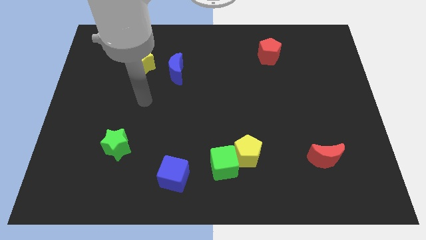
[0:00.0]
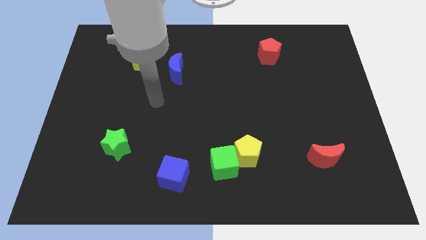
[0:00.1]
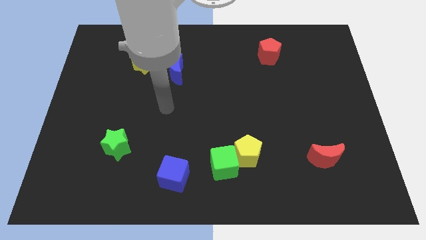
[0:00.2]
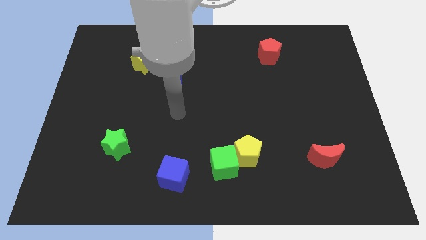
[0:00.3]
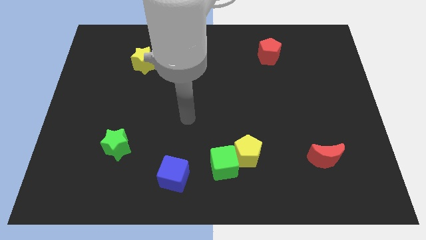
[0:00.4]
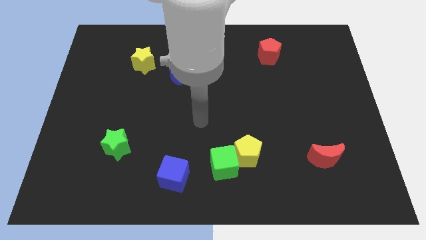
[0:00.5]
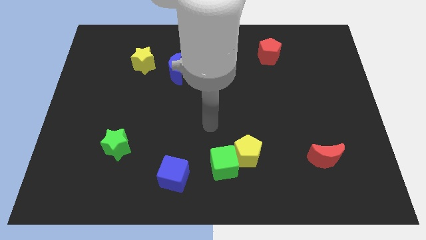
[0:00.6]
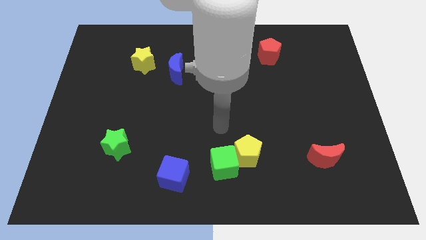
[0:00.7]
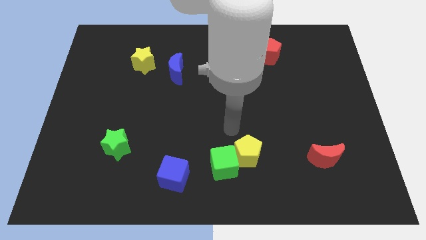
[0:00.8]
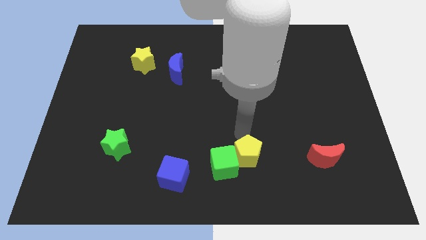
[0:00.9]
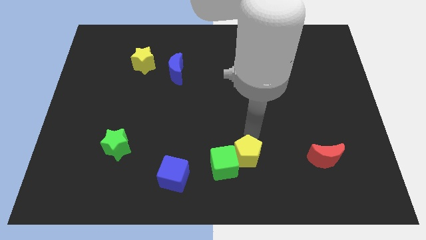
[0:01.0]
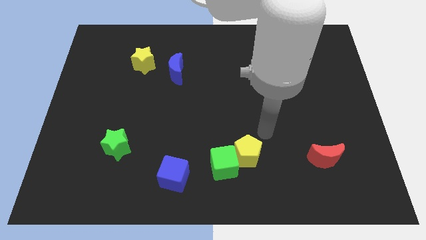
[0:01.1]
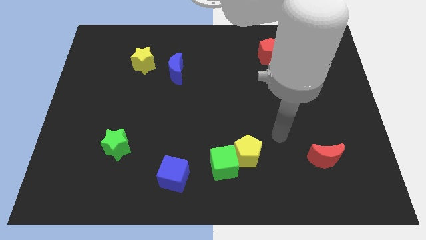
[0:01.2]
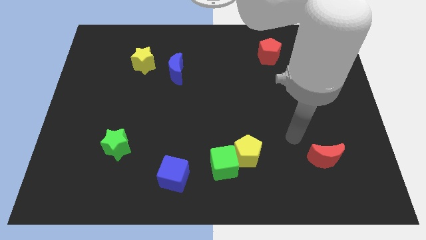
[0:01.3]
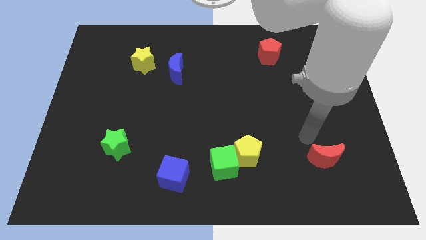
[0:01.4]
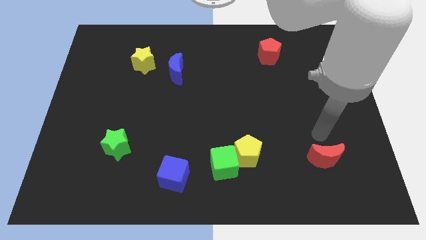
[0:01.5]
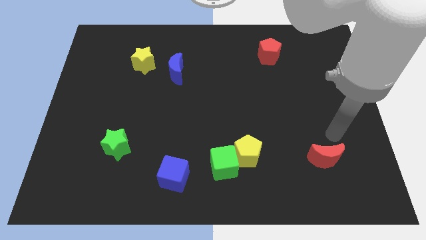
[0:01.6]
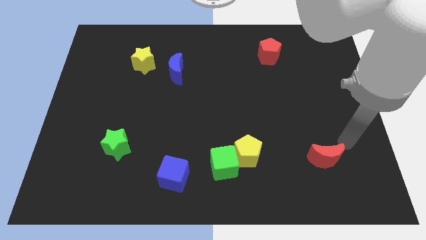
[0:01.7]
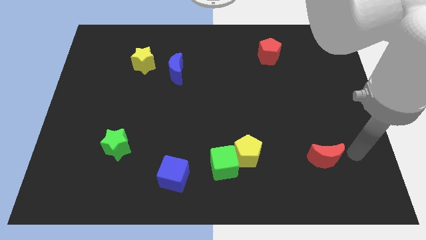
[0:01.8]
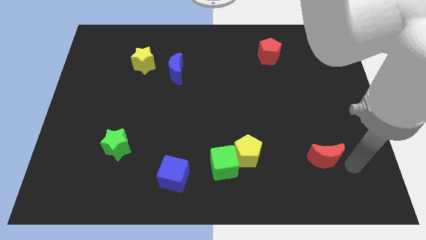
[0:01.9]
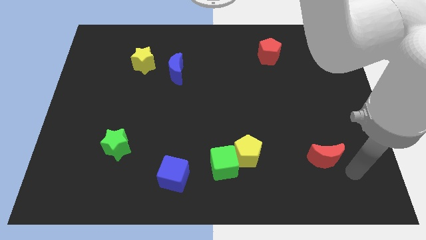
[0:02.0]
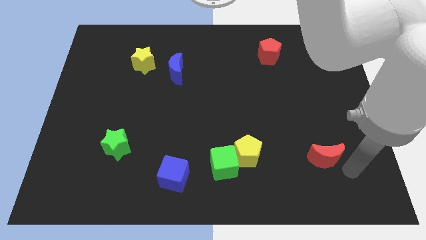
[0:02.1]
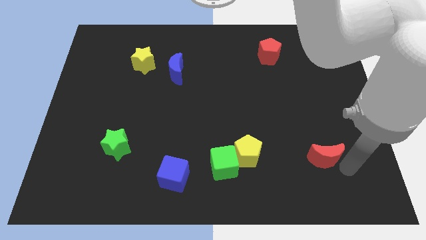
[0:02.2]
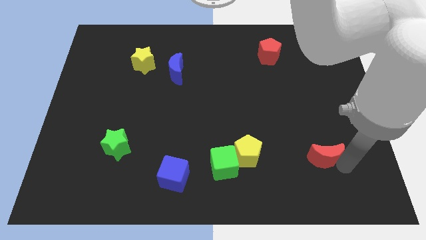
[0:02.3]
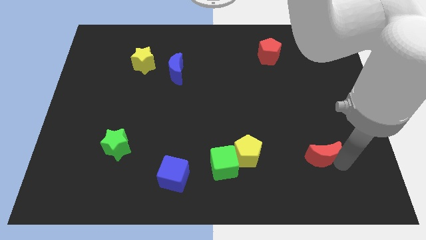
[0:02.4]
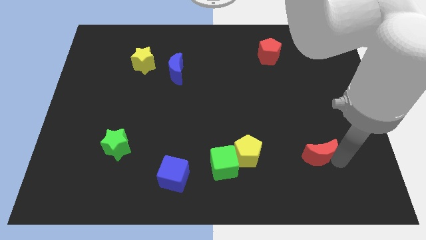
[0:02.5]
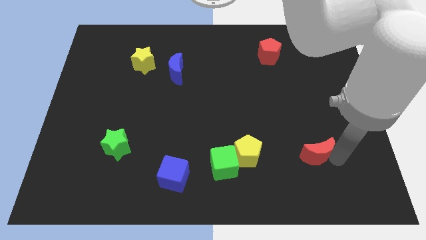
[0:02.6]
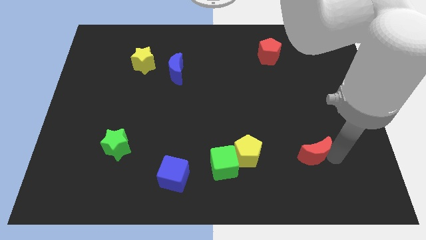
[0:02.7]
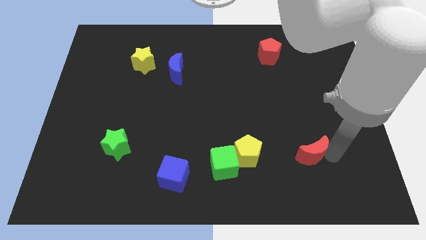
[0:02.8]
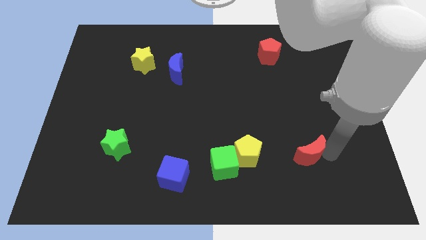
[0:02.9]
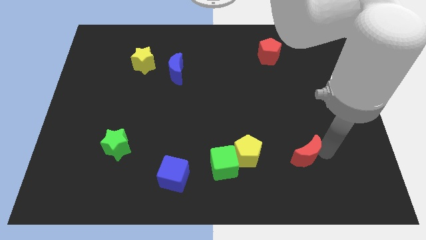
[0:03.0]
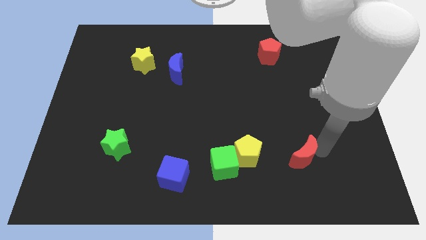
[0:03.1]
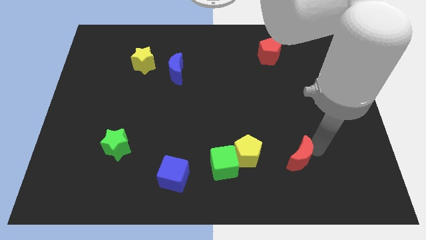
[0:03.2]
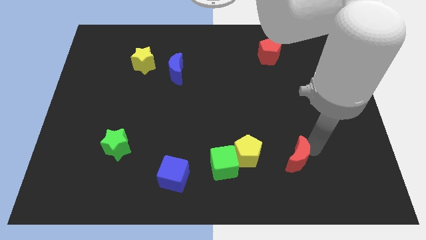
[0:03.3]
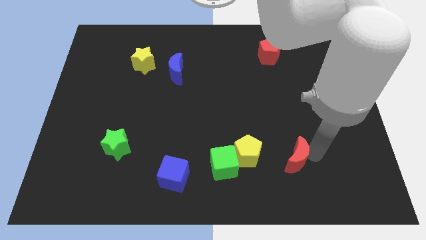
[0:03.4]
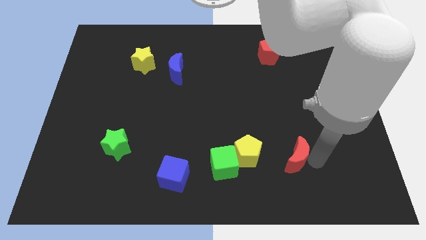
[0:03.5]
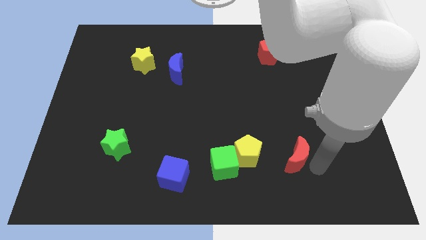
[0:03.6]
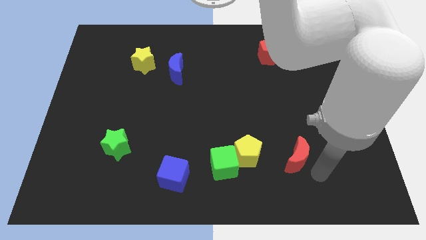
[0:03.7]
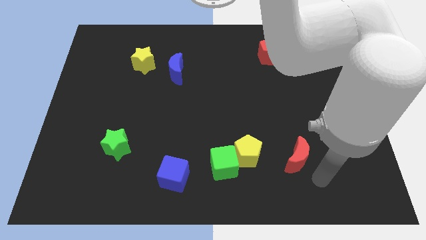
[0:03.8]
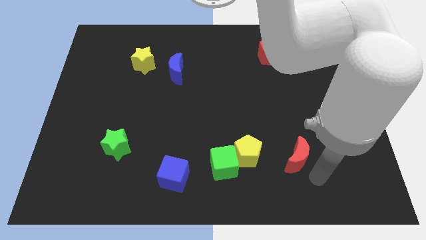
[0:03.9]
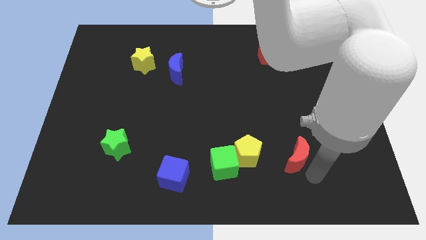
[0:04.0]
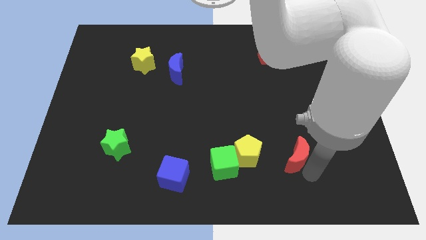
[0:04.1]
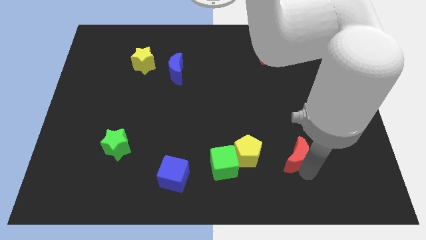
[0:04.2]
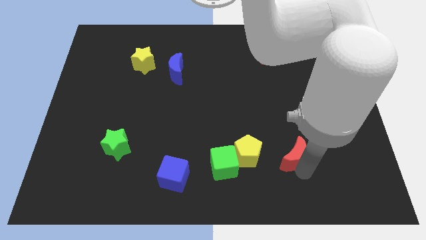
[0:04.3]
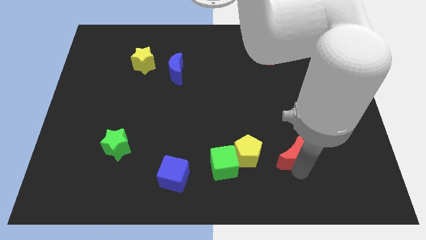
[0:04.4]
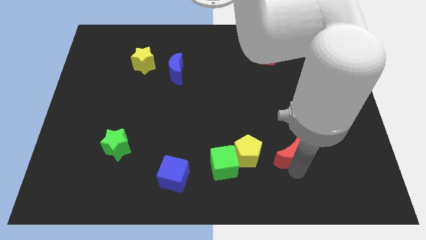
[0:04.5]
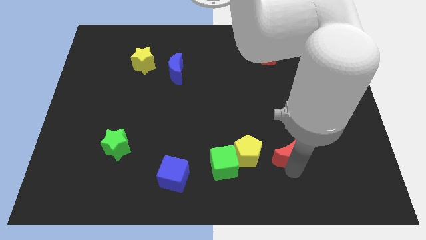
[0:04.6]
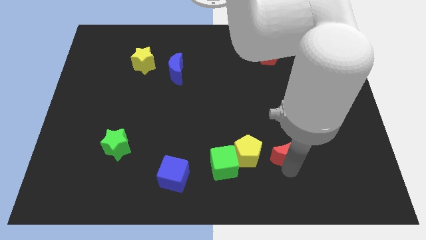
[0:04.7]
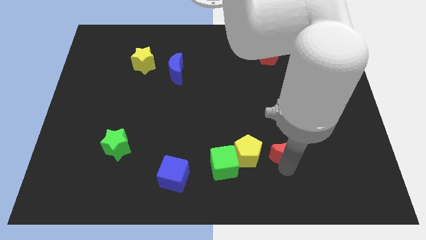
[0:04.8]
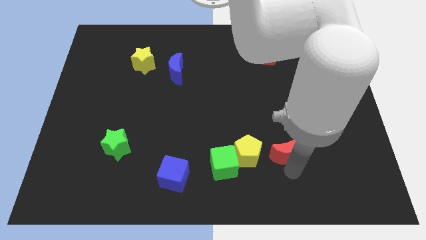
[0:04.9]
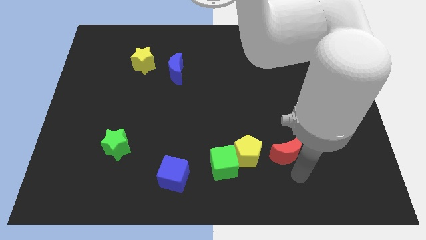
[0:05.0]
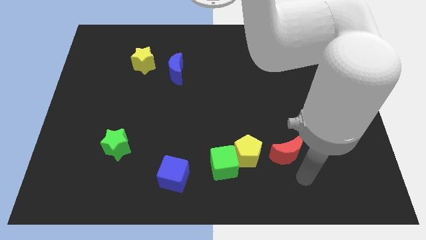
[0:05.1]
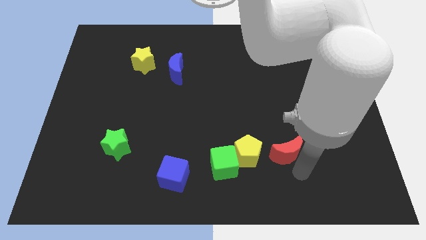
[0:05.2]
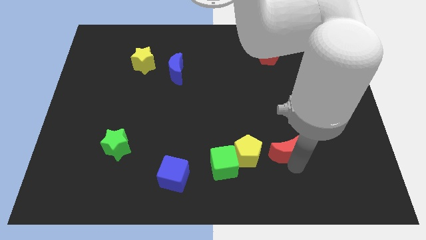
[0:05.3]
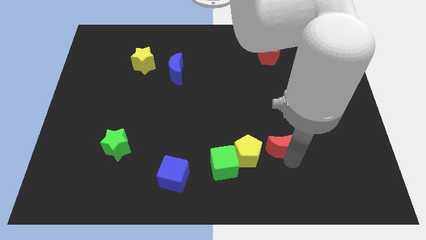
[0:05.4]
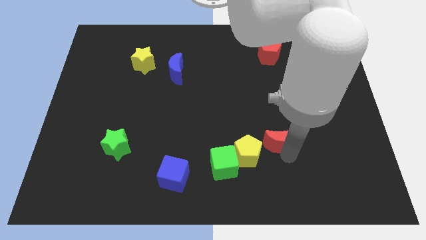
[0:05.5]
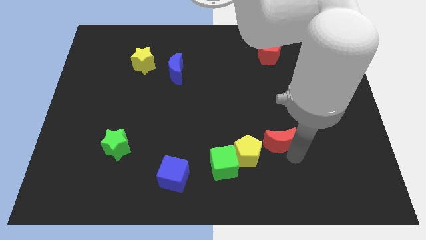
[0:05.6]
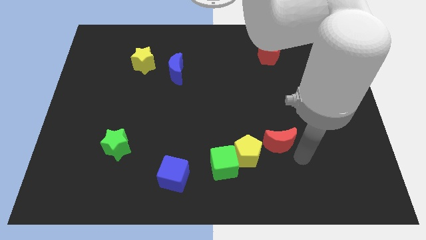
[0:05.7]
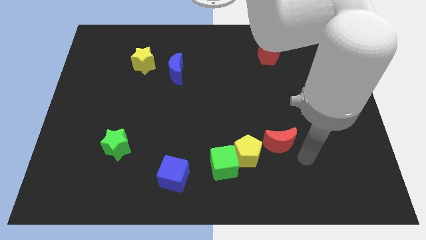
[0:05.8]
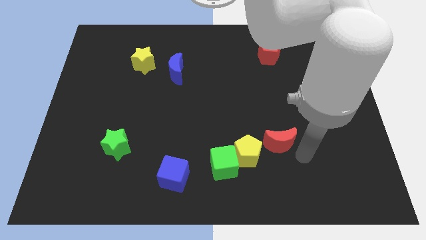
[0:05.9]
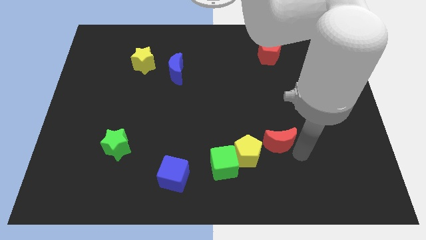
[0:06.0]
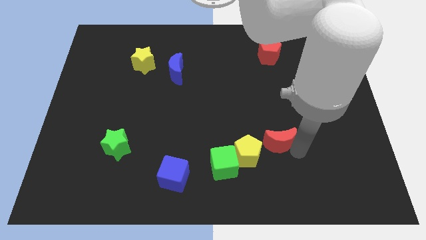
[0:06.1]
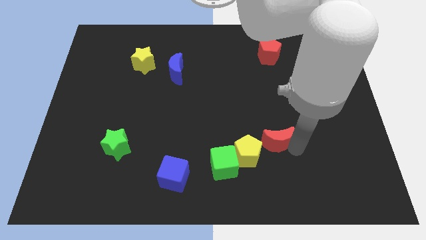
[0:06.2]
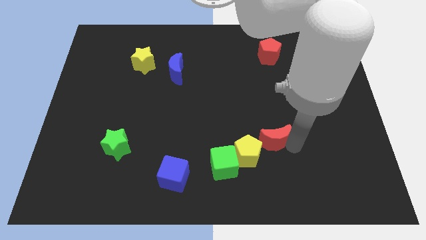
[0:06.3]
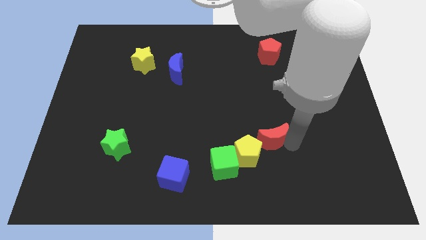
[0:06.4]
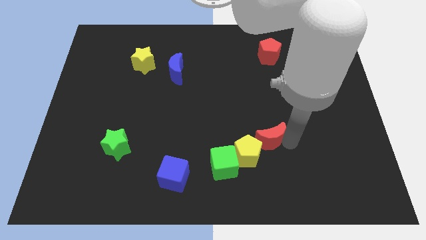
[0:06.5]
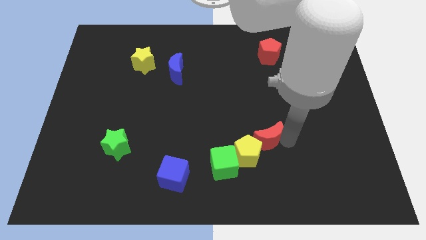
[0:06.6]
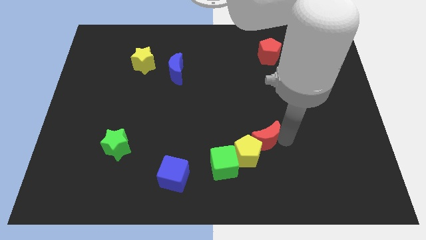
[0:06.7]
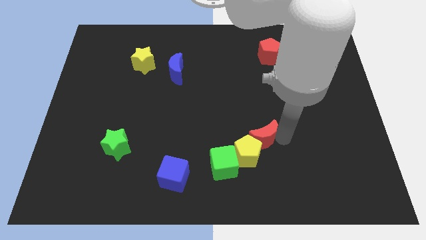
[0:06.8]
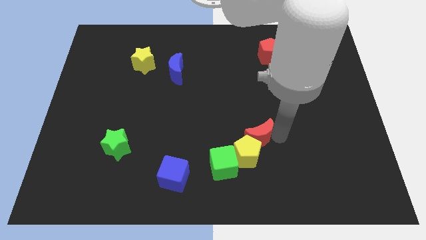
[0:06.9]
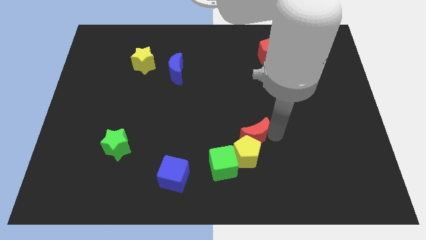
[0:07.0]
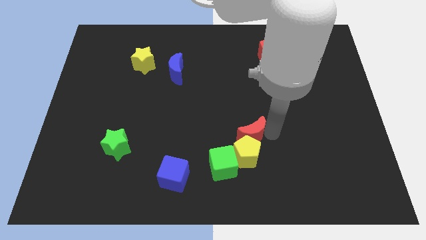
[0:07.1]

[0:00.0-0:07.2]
push the red moon to the top left side of the yellow pentagon
